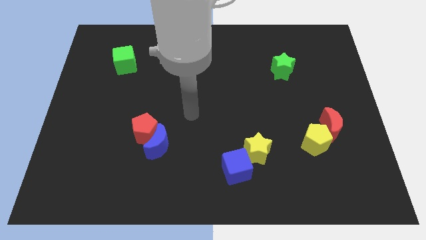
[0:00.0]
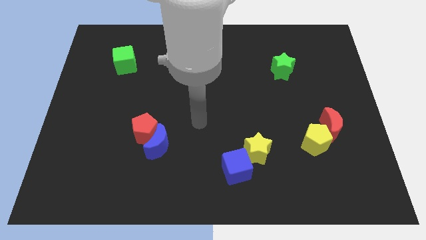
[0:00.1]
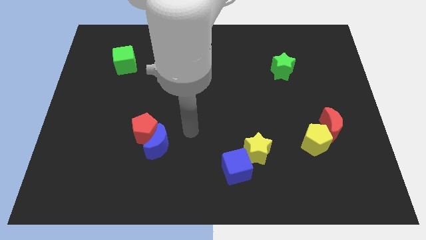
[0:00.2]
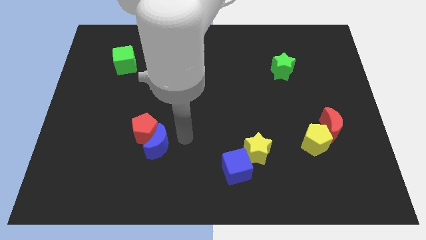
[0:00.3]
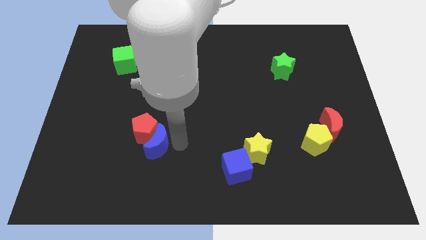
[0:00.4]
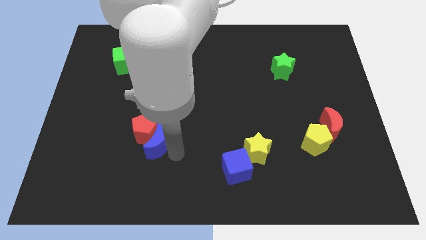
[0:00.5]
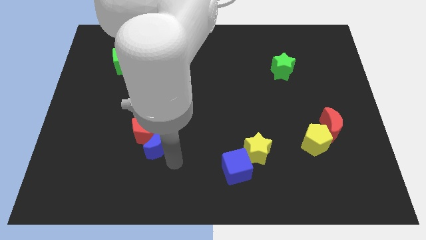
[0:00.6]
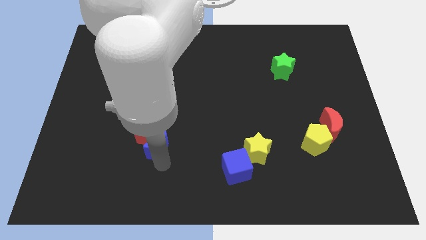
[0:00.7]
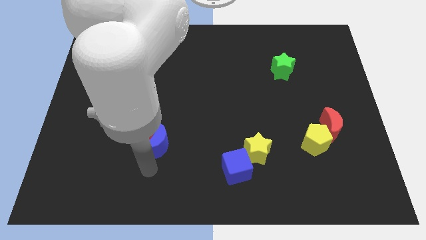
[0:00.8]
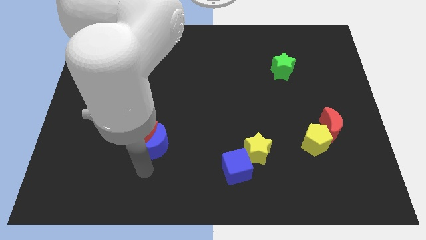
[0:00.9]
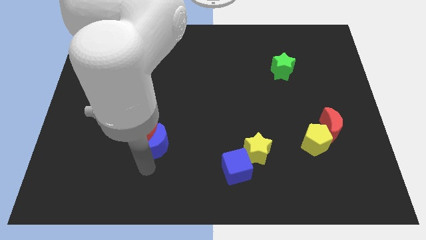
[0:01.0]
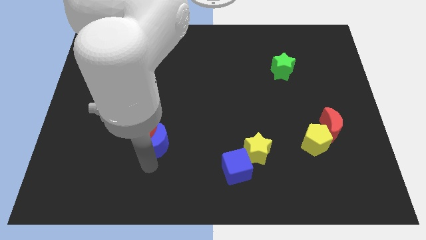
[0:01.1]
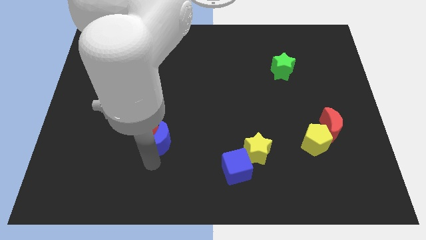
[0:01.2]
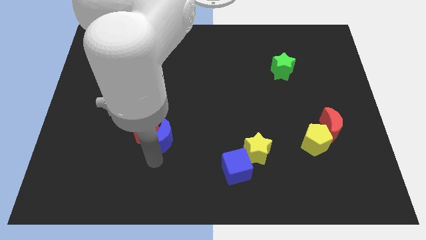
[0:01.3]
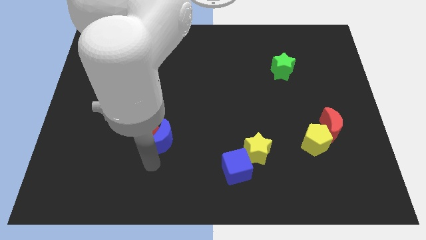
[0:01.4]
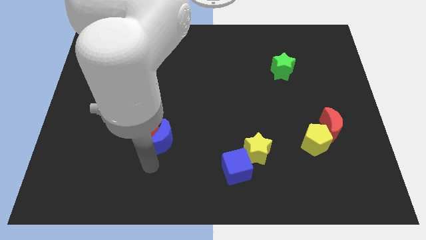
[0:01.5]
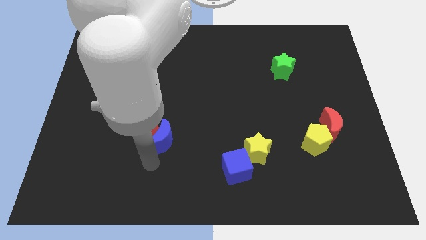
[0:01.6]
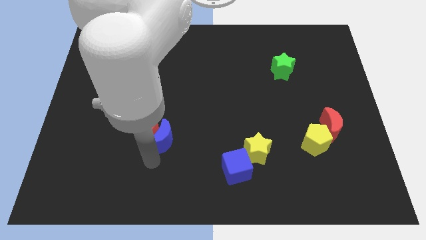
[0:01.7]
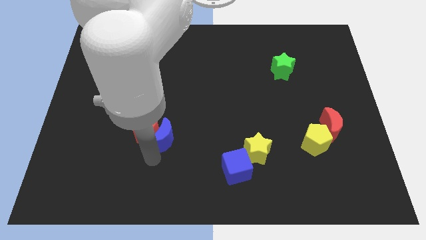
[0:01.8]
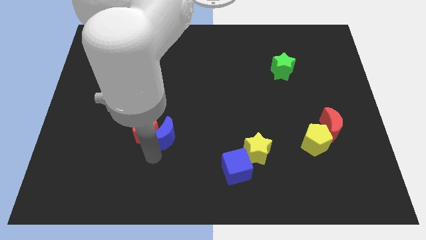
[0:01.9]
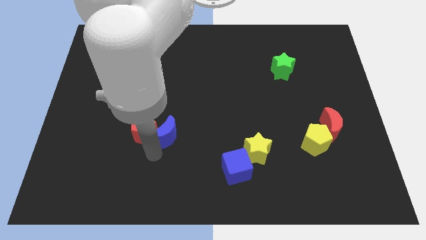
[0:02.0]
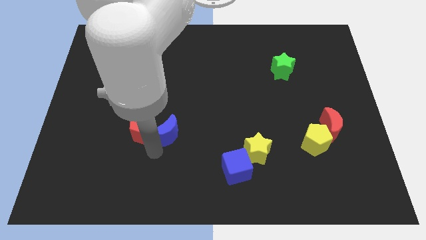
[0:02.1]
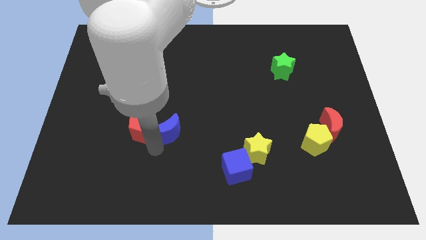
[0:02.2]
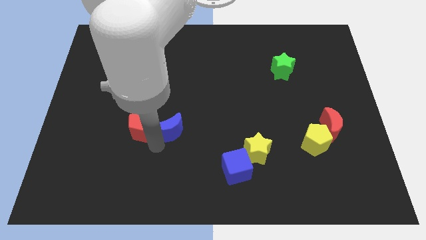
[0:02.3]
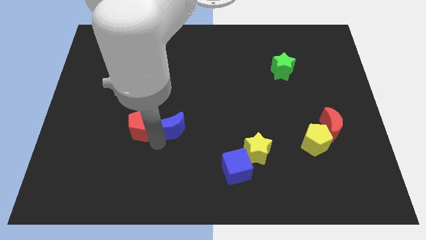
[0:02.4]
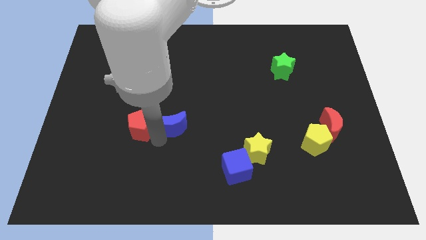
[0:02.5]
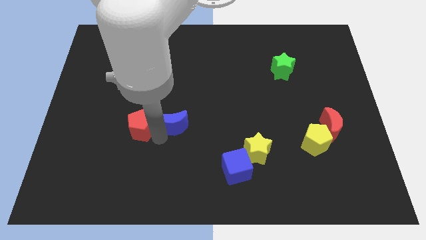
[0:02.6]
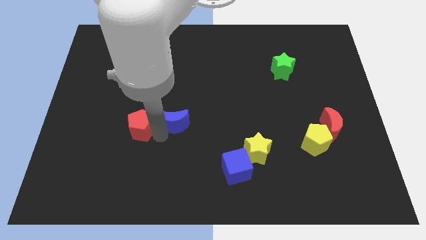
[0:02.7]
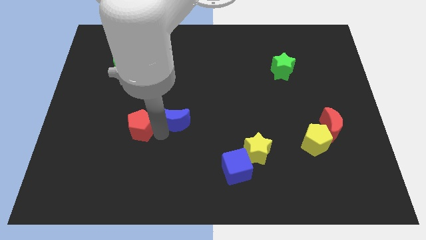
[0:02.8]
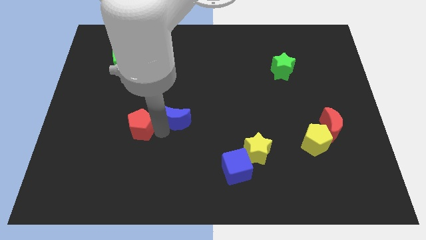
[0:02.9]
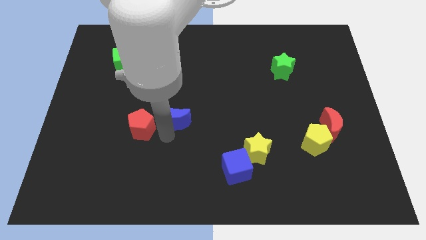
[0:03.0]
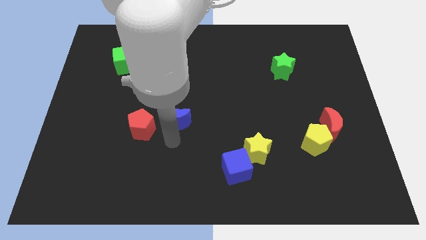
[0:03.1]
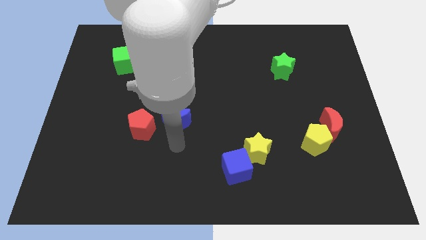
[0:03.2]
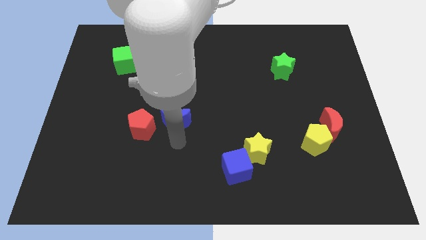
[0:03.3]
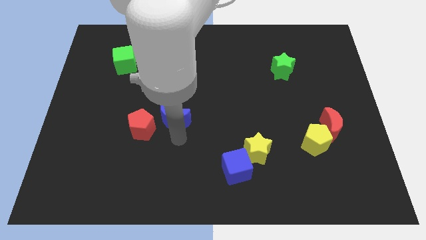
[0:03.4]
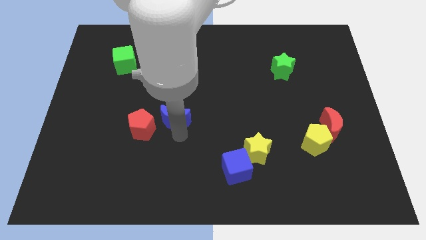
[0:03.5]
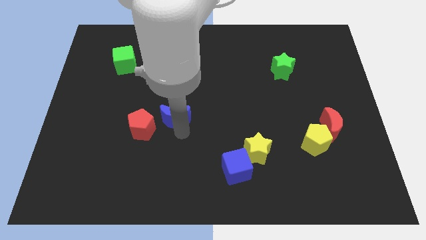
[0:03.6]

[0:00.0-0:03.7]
push the blue moon slightly up

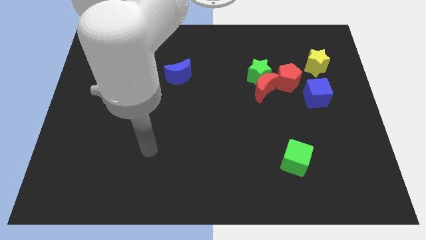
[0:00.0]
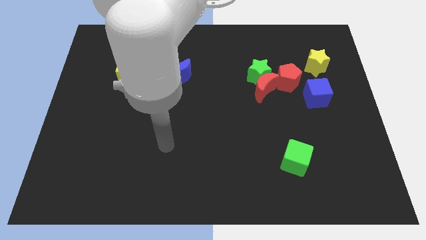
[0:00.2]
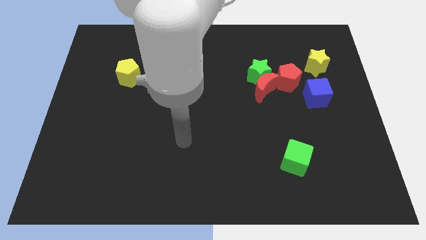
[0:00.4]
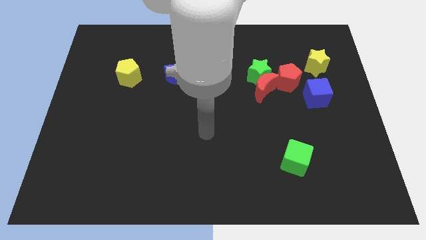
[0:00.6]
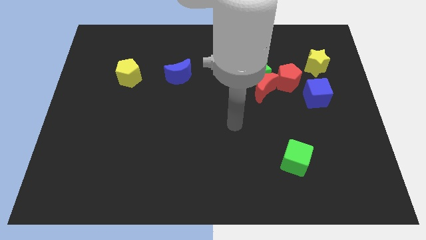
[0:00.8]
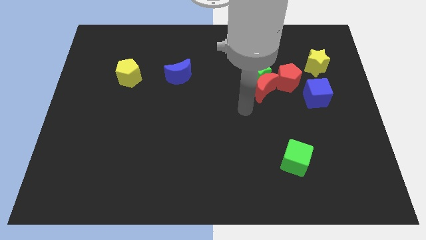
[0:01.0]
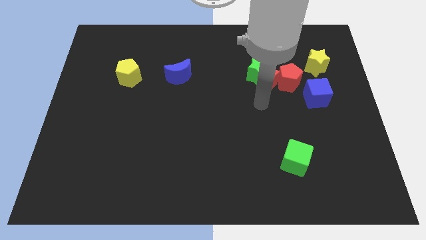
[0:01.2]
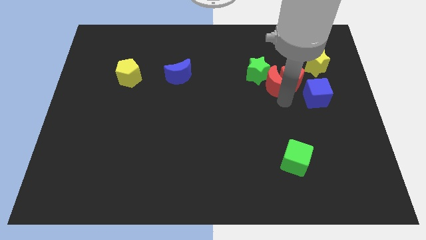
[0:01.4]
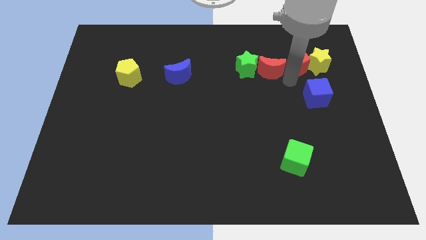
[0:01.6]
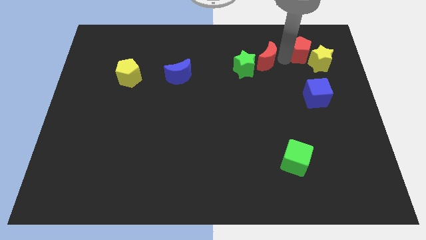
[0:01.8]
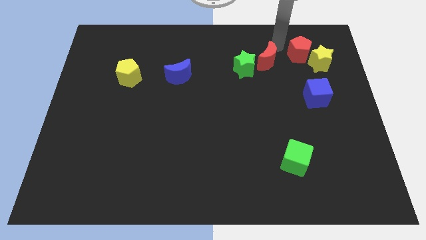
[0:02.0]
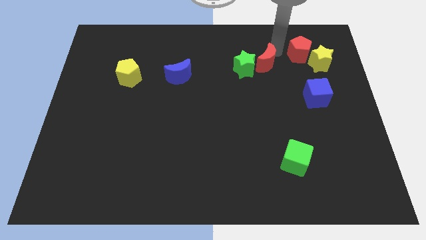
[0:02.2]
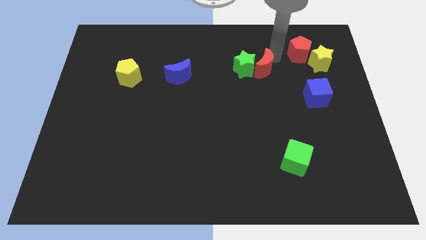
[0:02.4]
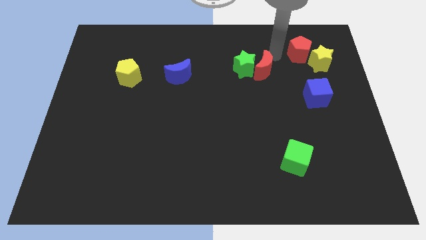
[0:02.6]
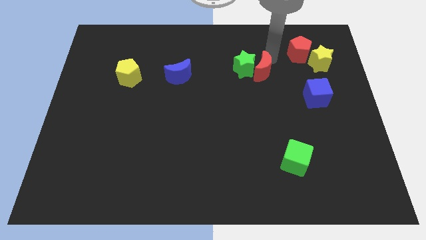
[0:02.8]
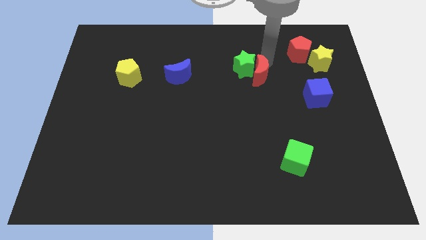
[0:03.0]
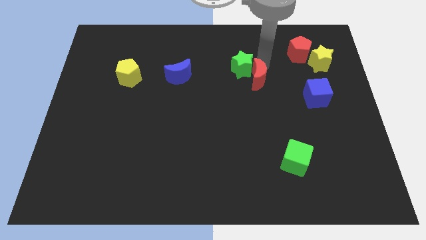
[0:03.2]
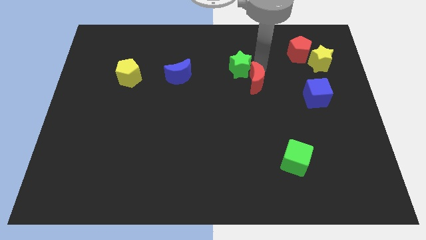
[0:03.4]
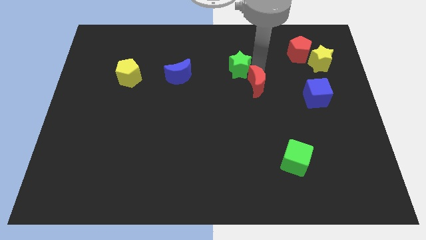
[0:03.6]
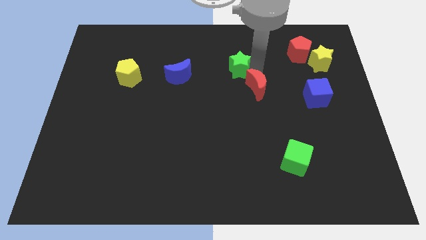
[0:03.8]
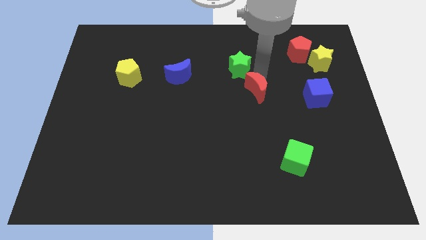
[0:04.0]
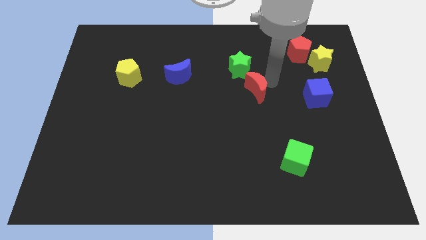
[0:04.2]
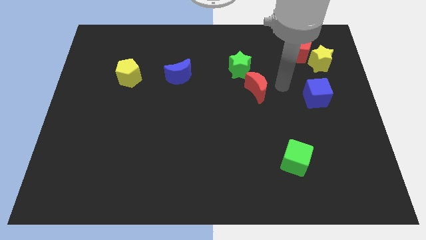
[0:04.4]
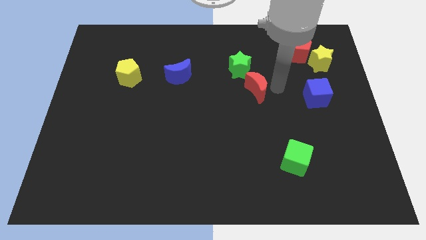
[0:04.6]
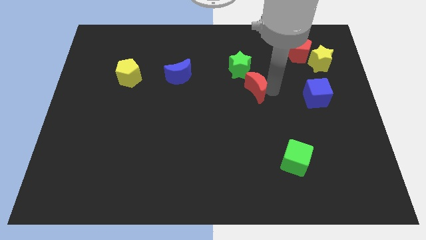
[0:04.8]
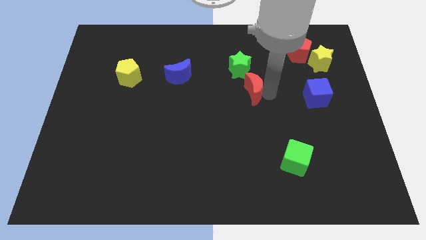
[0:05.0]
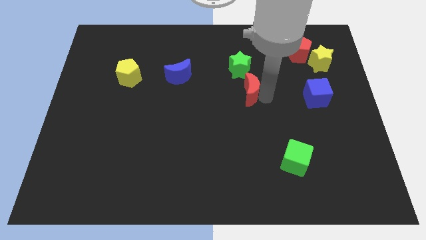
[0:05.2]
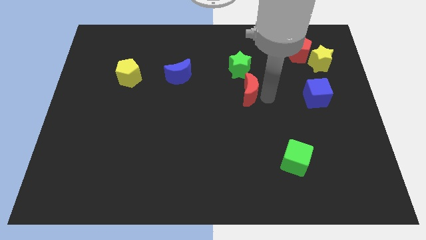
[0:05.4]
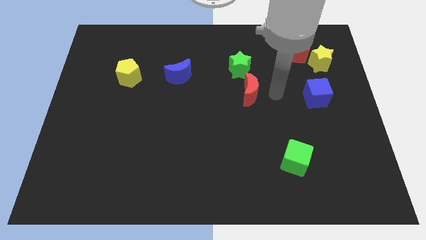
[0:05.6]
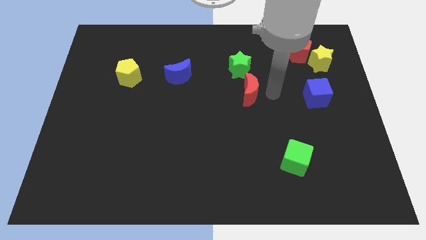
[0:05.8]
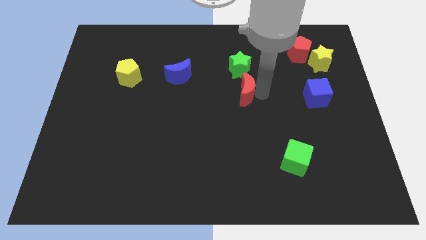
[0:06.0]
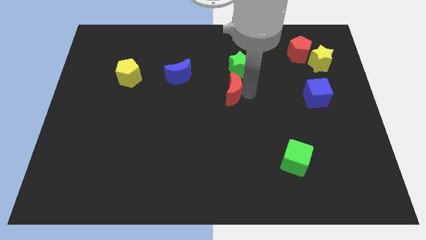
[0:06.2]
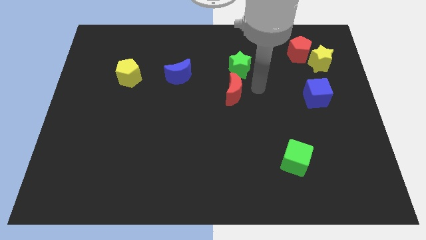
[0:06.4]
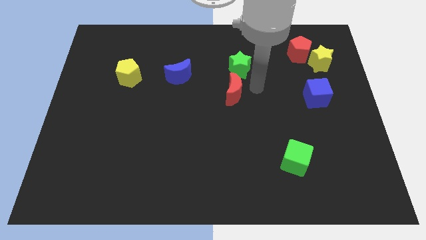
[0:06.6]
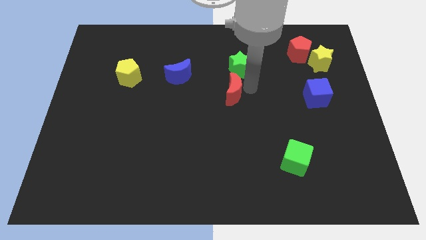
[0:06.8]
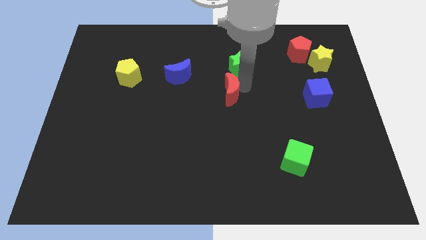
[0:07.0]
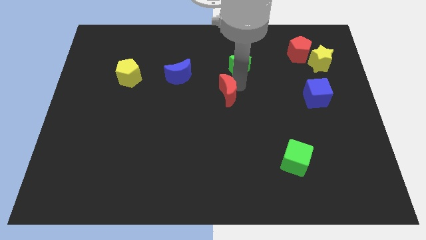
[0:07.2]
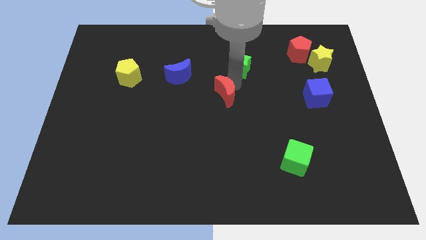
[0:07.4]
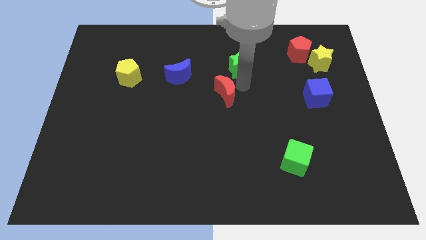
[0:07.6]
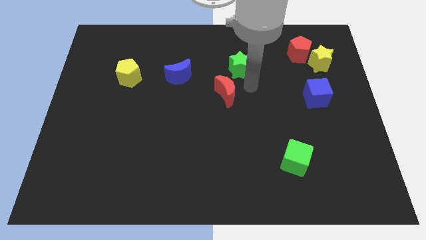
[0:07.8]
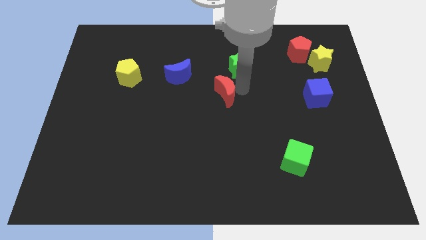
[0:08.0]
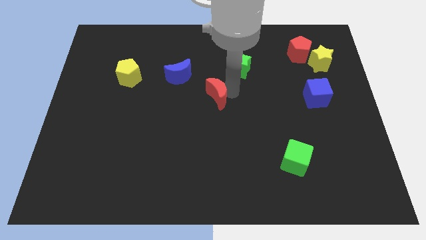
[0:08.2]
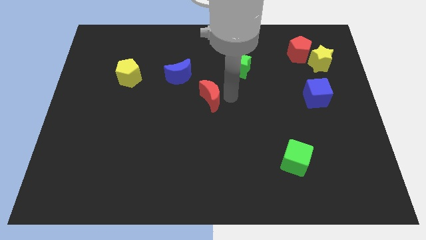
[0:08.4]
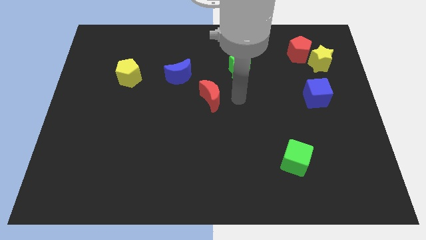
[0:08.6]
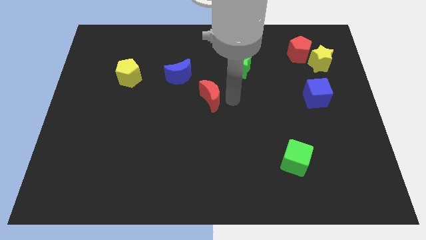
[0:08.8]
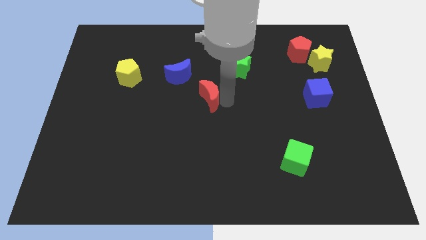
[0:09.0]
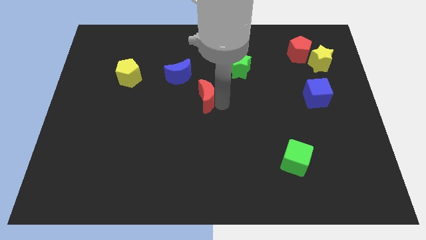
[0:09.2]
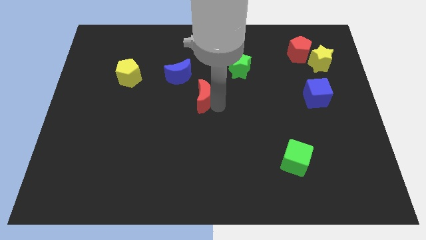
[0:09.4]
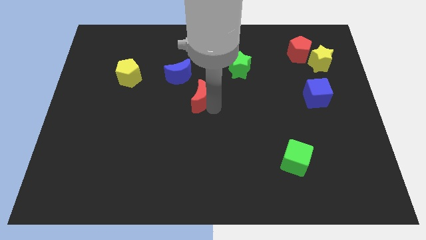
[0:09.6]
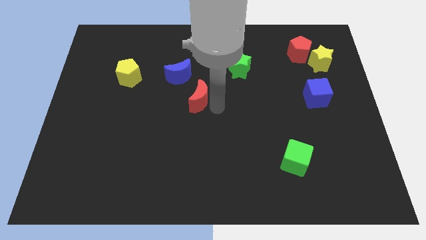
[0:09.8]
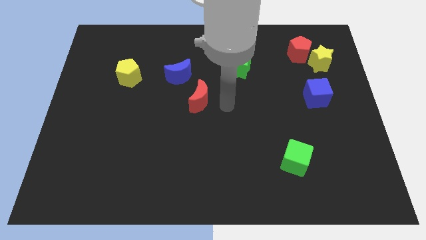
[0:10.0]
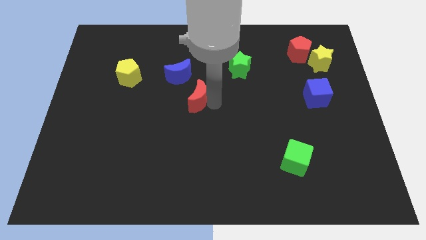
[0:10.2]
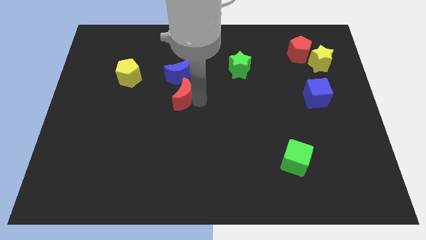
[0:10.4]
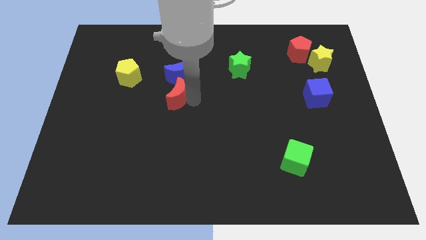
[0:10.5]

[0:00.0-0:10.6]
push the red moon to the left
